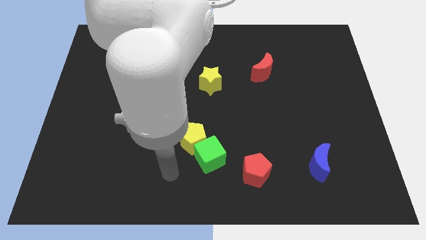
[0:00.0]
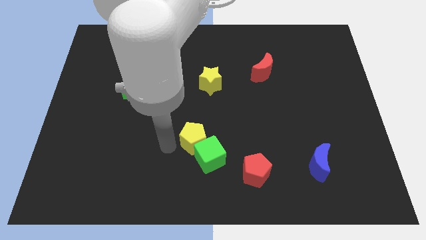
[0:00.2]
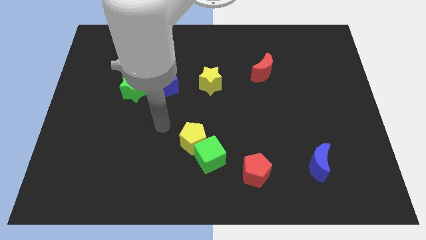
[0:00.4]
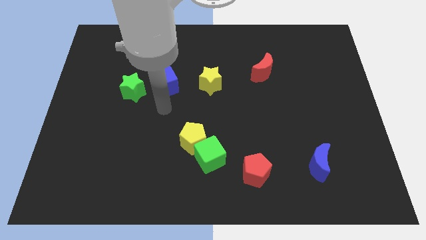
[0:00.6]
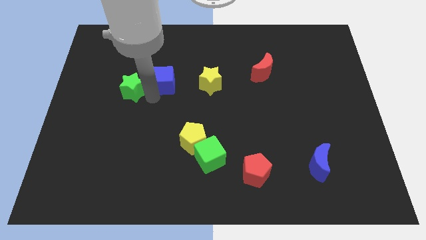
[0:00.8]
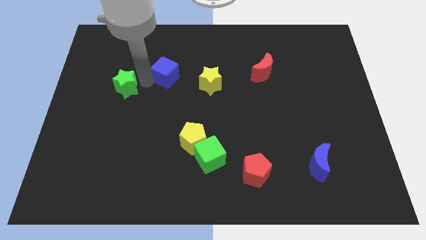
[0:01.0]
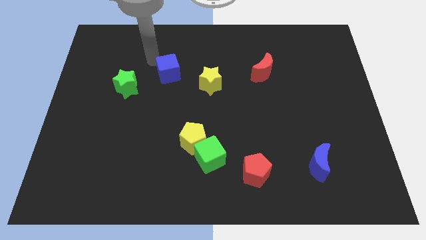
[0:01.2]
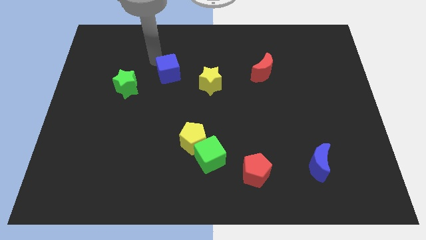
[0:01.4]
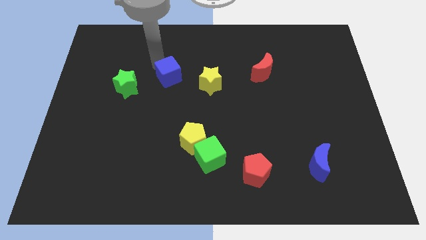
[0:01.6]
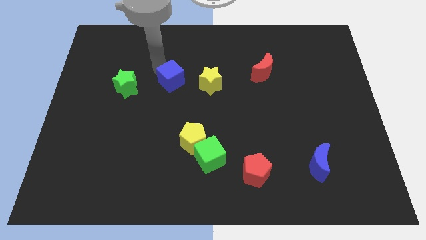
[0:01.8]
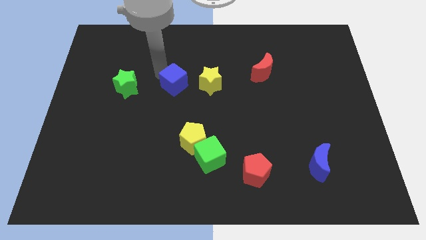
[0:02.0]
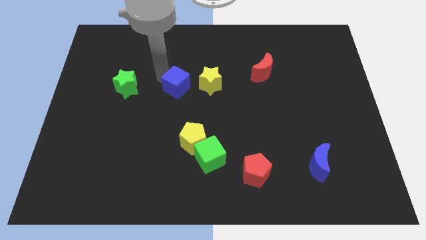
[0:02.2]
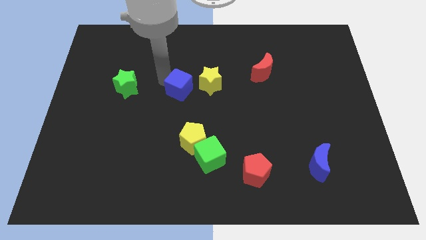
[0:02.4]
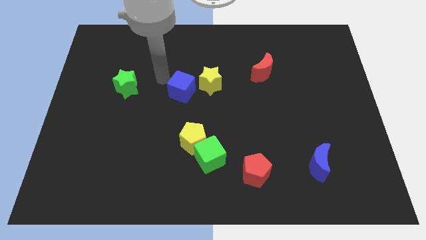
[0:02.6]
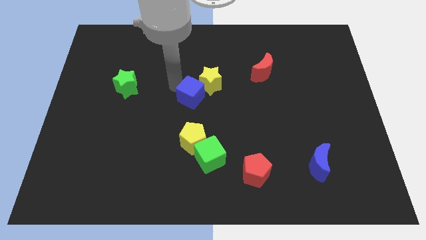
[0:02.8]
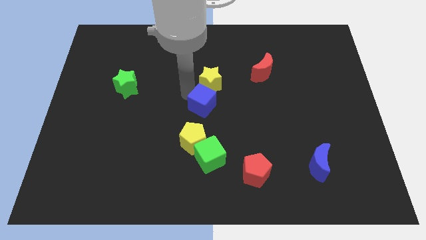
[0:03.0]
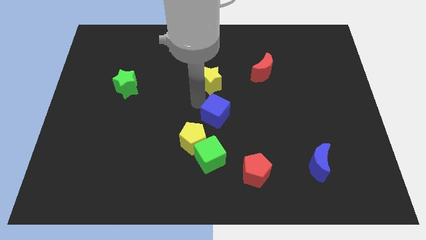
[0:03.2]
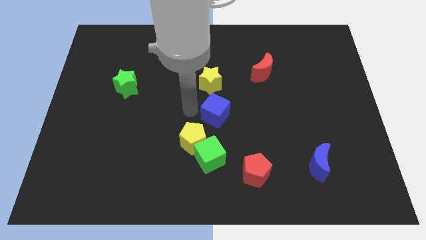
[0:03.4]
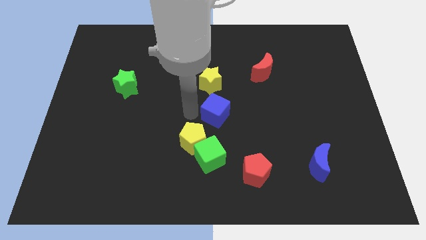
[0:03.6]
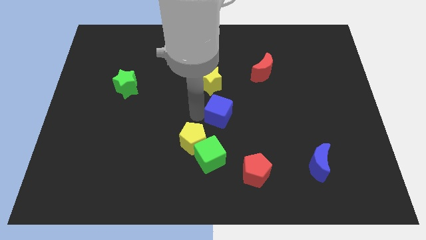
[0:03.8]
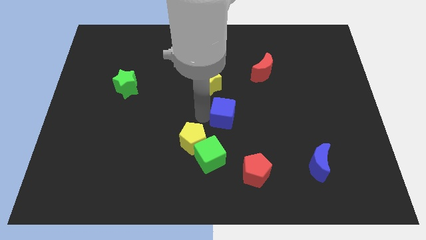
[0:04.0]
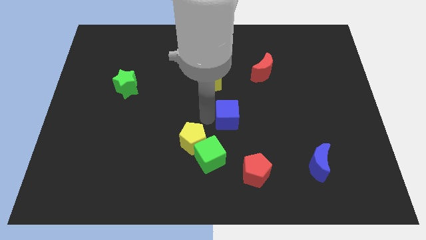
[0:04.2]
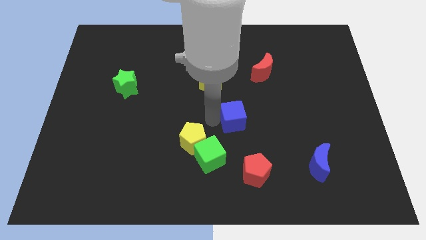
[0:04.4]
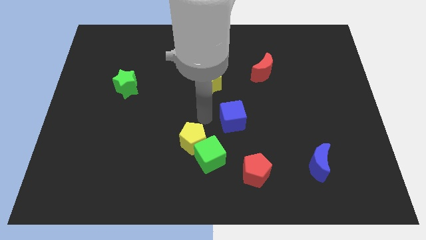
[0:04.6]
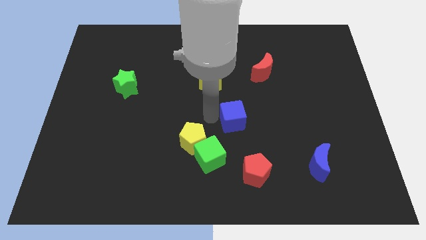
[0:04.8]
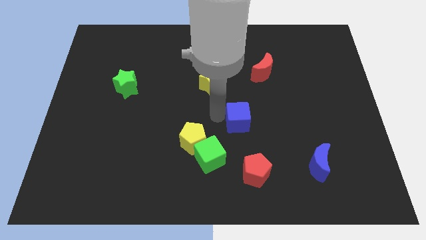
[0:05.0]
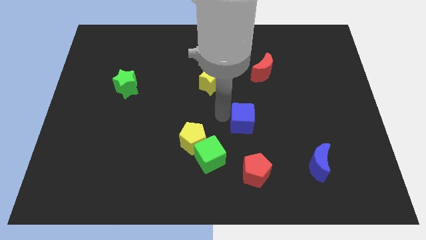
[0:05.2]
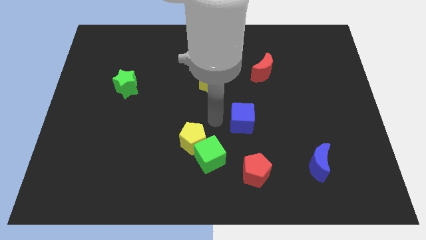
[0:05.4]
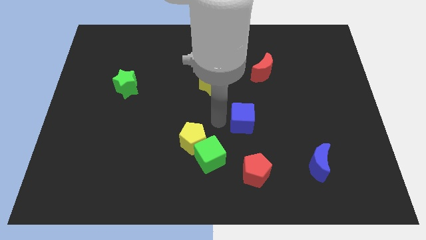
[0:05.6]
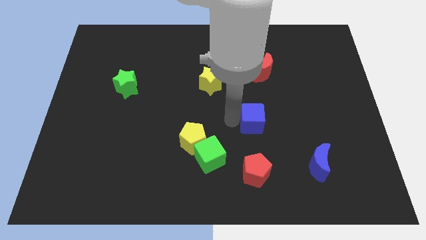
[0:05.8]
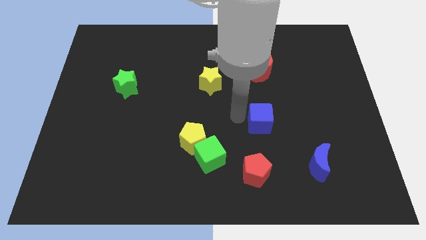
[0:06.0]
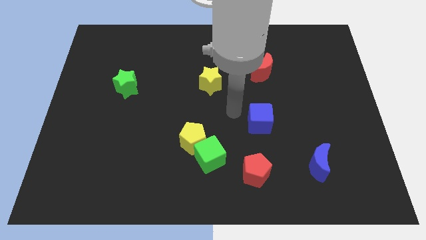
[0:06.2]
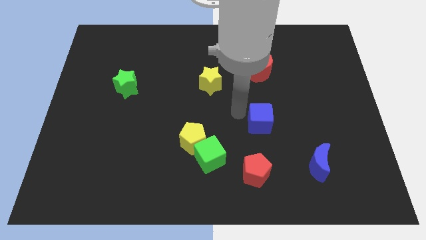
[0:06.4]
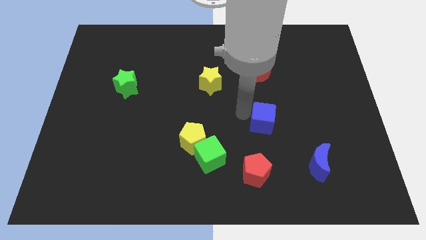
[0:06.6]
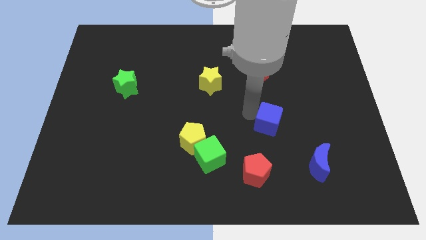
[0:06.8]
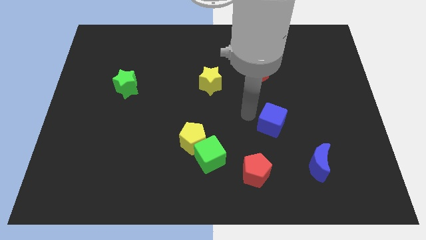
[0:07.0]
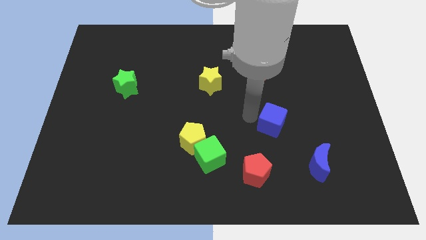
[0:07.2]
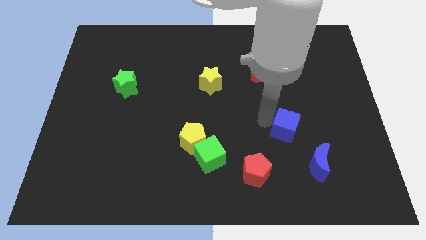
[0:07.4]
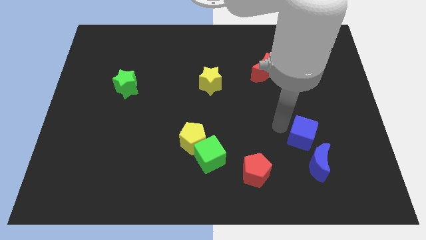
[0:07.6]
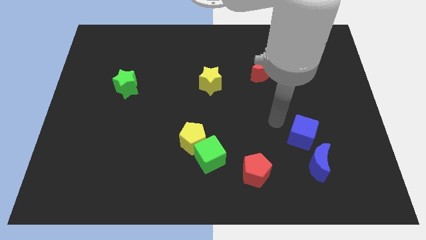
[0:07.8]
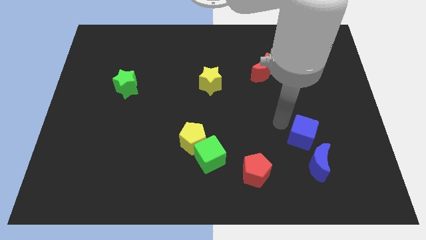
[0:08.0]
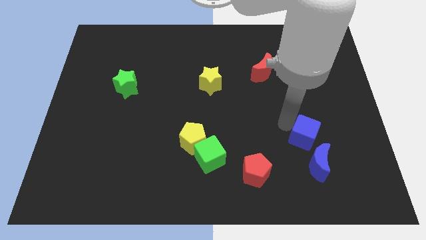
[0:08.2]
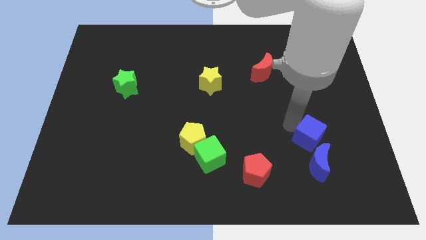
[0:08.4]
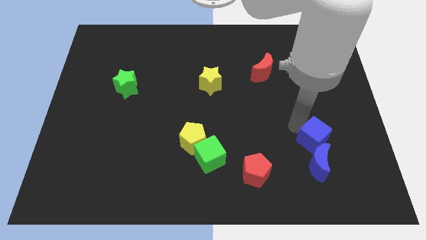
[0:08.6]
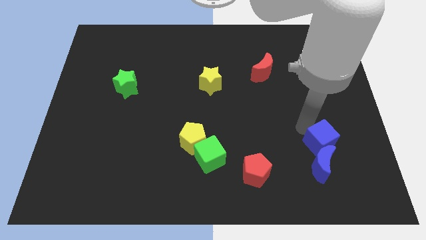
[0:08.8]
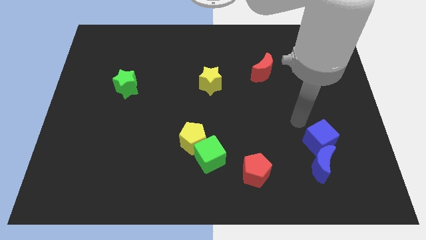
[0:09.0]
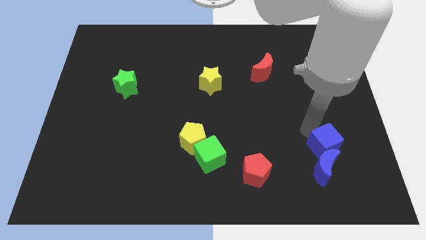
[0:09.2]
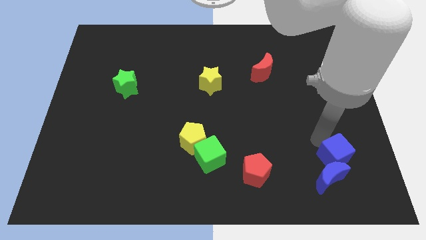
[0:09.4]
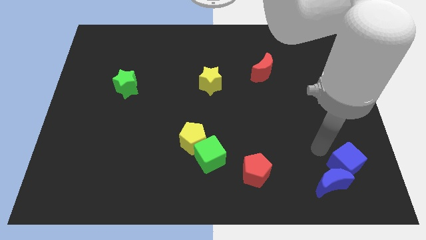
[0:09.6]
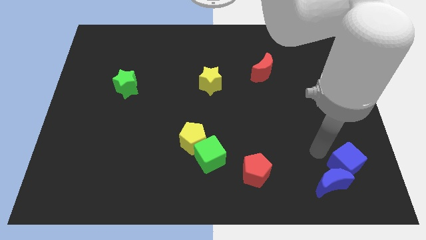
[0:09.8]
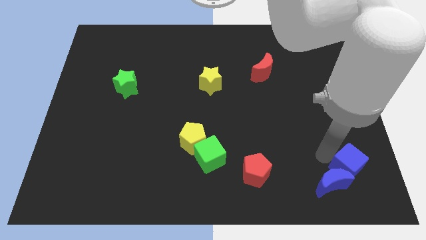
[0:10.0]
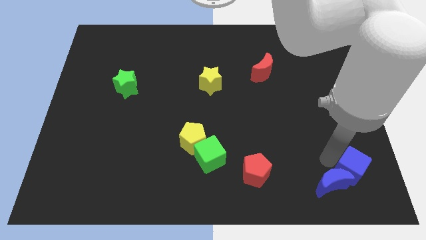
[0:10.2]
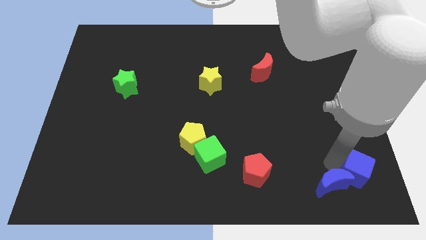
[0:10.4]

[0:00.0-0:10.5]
push the blue cube to the bottom right

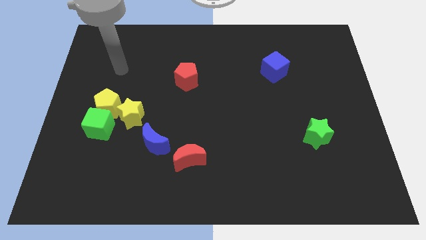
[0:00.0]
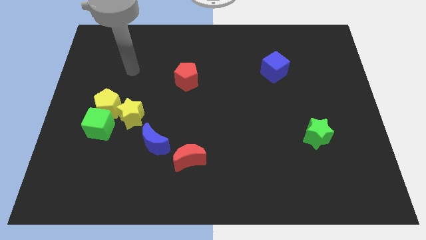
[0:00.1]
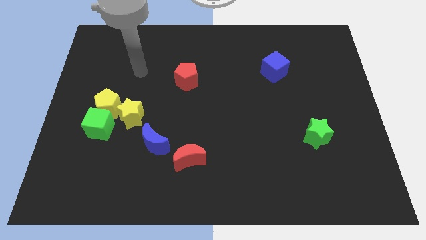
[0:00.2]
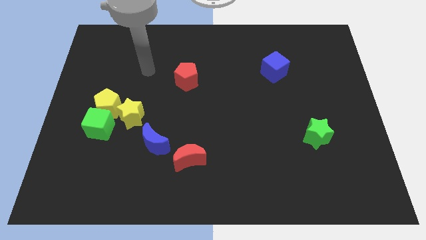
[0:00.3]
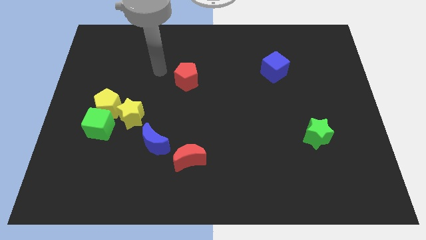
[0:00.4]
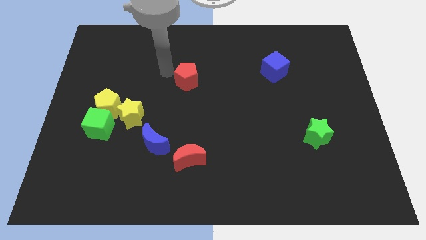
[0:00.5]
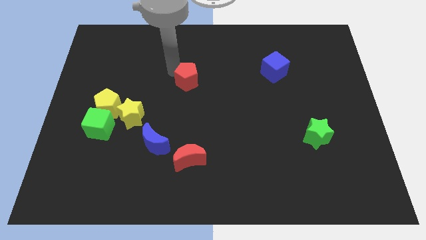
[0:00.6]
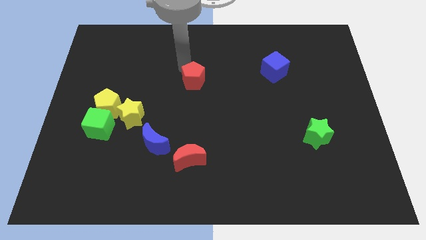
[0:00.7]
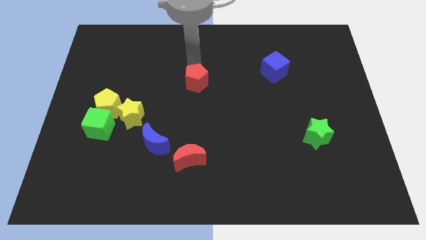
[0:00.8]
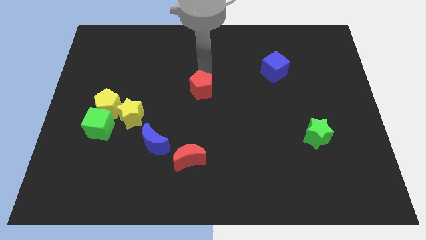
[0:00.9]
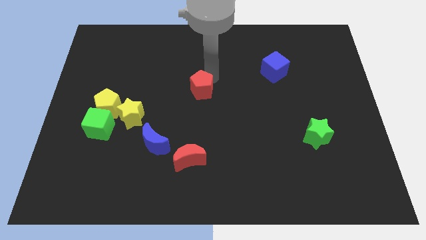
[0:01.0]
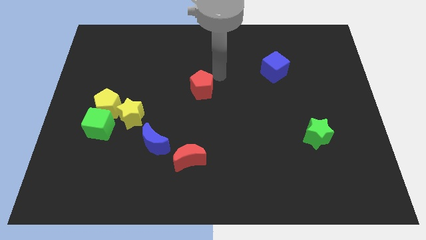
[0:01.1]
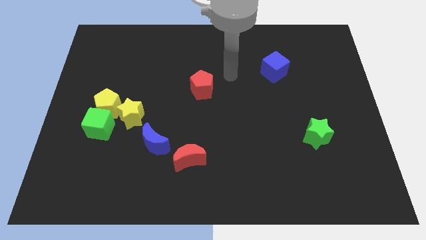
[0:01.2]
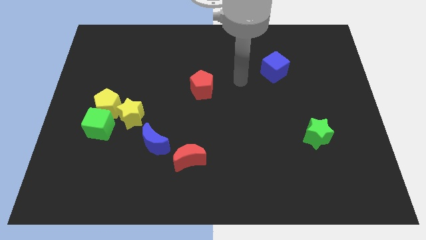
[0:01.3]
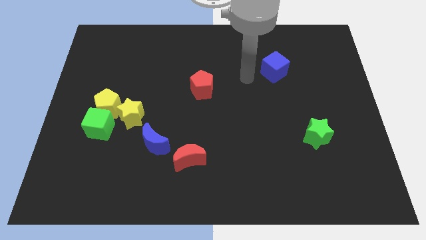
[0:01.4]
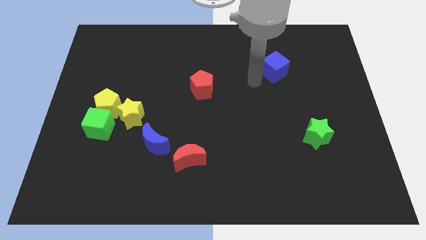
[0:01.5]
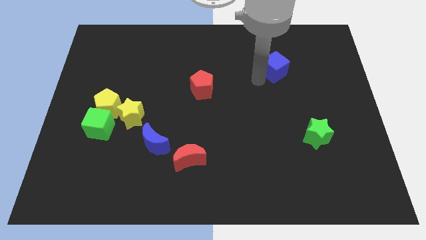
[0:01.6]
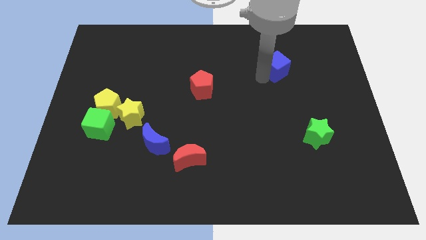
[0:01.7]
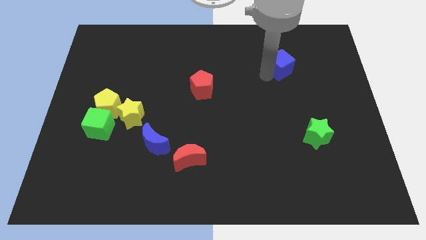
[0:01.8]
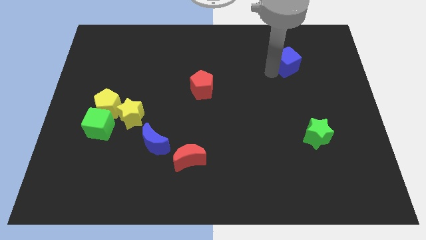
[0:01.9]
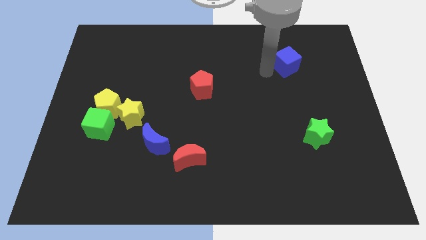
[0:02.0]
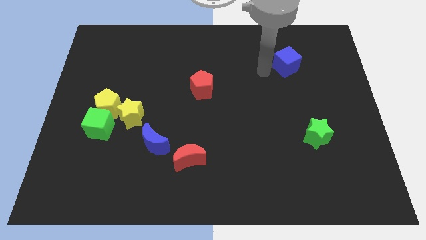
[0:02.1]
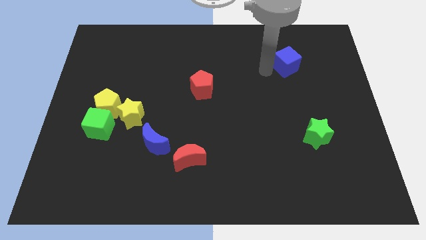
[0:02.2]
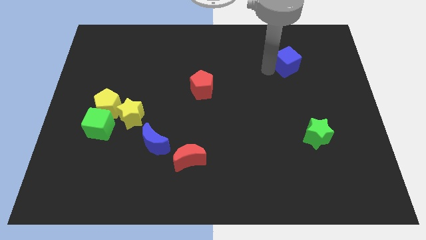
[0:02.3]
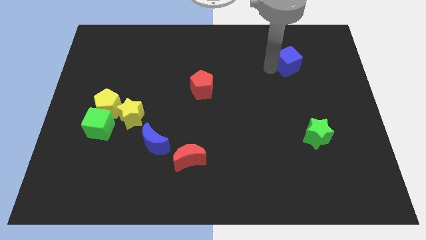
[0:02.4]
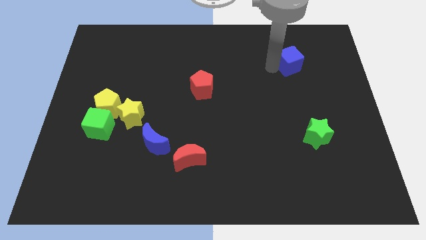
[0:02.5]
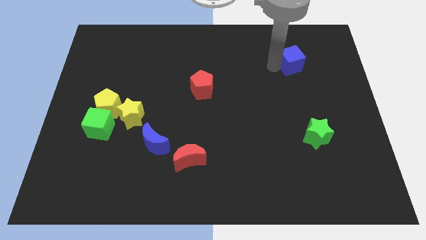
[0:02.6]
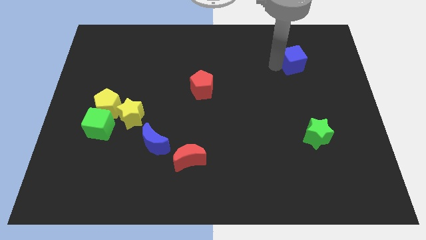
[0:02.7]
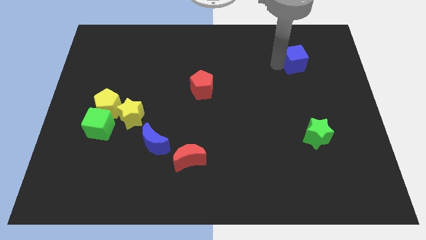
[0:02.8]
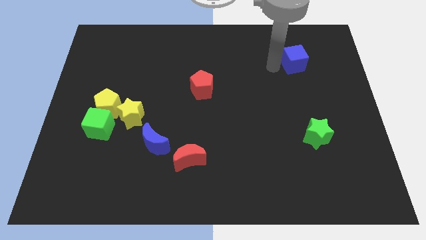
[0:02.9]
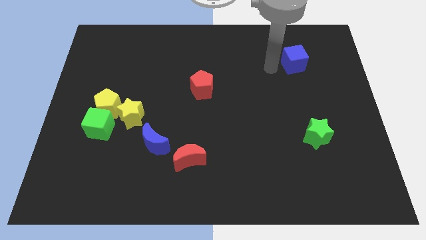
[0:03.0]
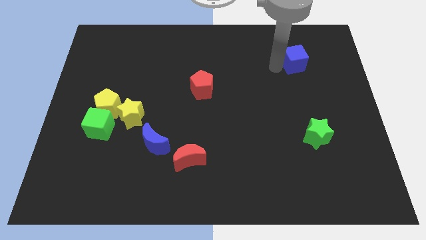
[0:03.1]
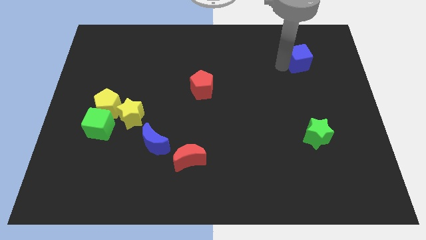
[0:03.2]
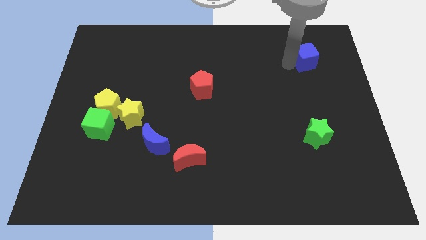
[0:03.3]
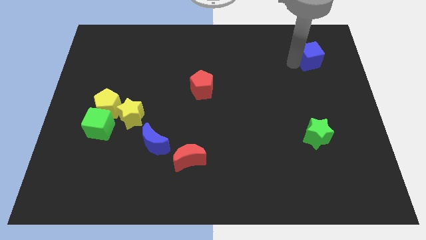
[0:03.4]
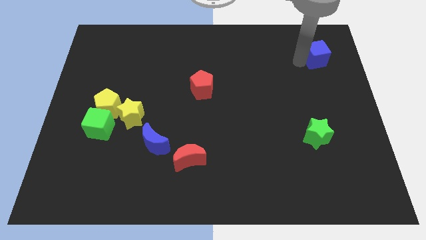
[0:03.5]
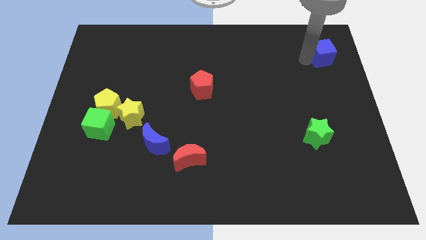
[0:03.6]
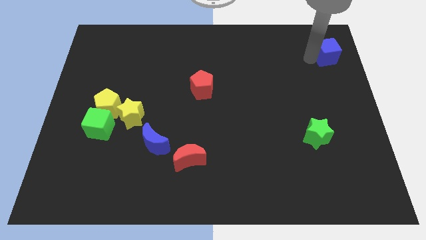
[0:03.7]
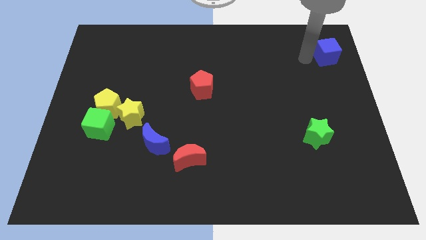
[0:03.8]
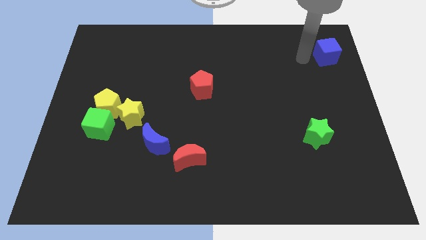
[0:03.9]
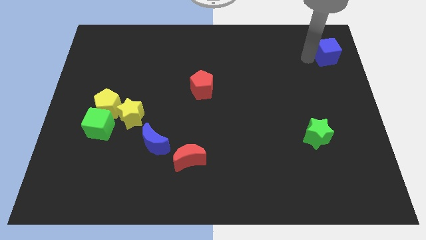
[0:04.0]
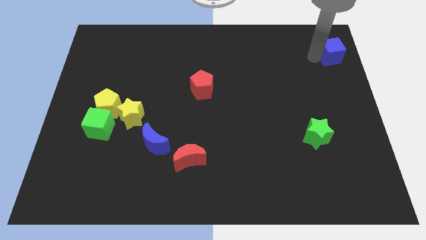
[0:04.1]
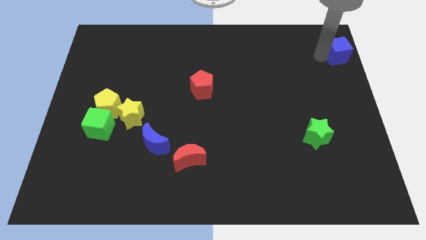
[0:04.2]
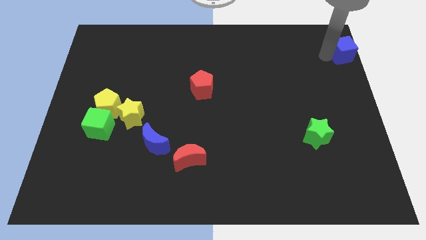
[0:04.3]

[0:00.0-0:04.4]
slide the blue cube to the top right
